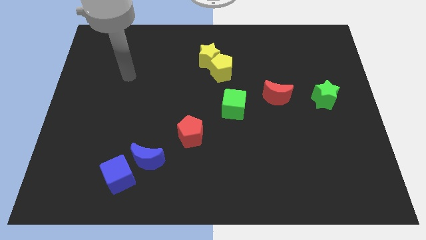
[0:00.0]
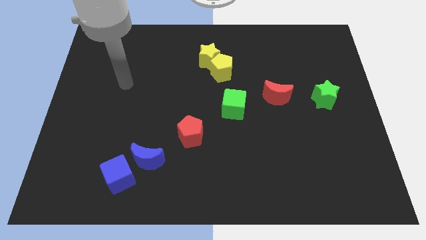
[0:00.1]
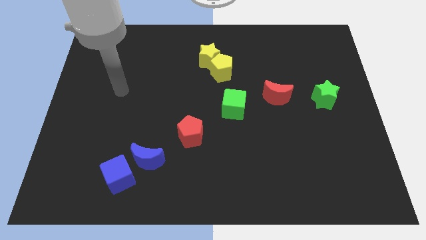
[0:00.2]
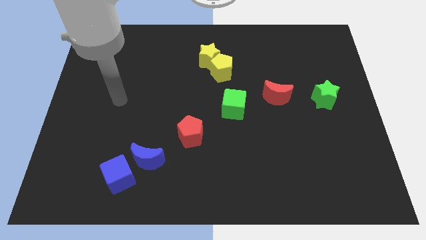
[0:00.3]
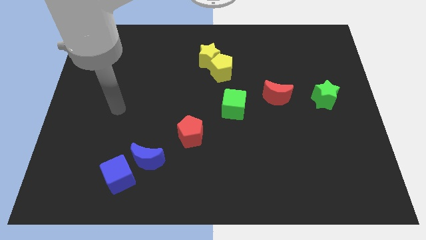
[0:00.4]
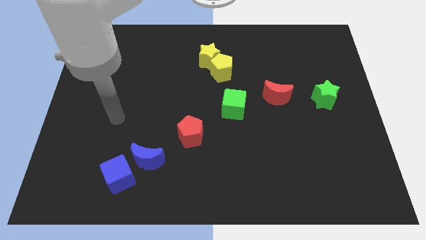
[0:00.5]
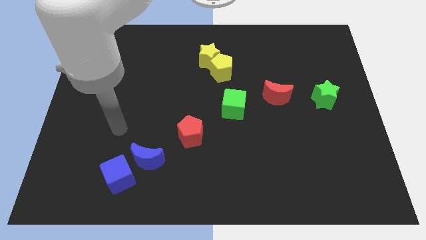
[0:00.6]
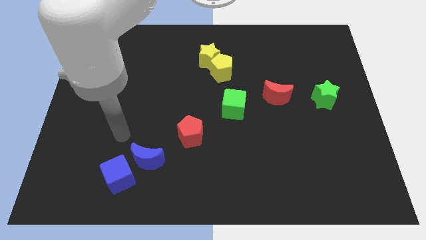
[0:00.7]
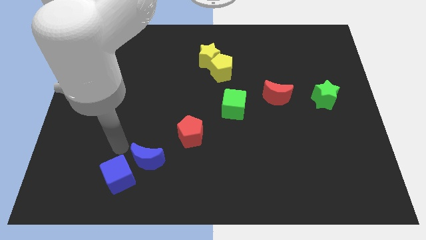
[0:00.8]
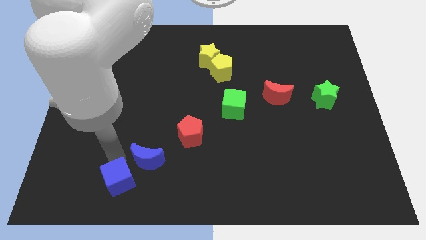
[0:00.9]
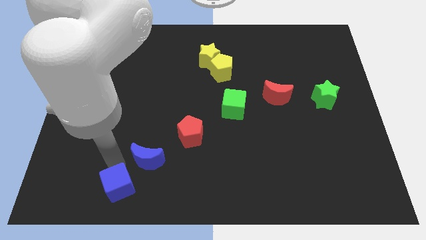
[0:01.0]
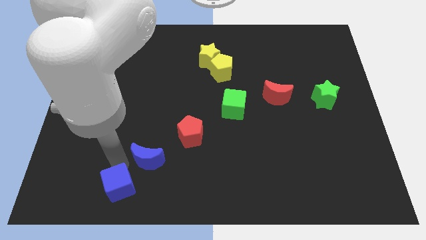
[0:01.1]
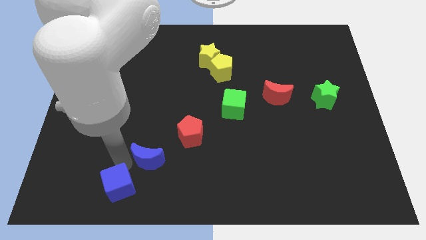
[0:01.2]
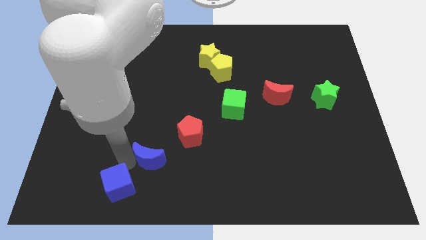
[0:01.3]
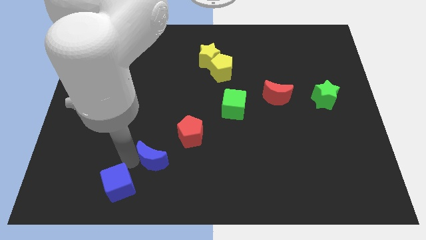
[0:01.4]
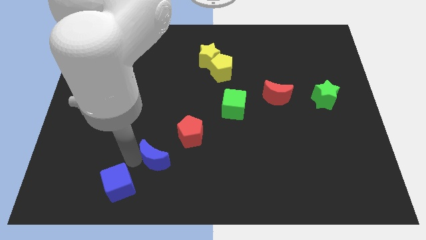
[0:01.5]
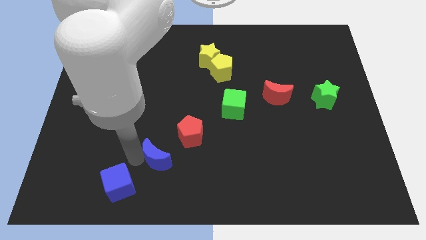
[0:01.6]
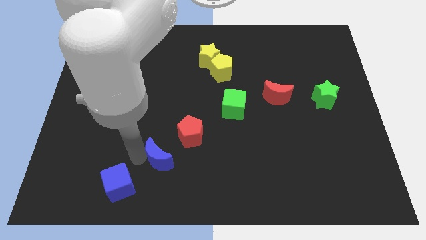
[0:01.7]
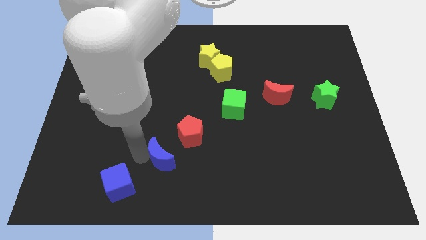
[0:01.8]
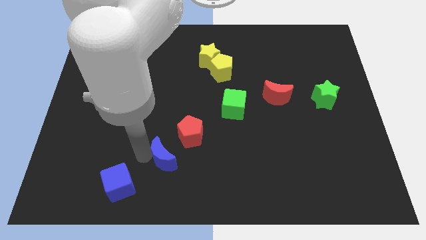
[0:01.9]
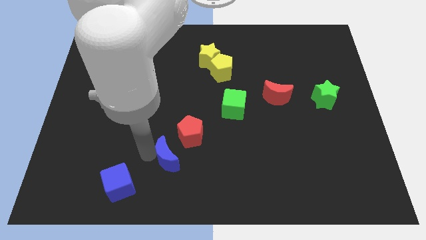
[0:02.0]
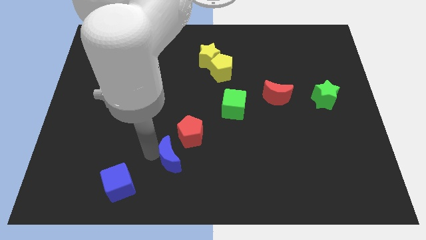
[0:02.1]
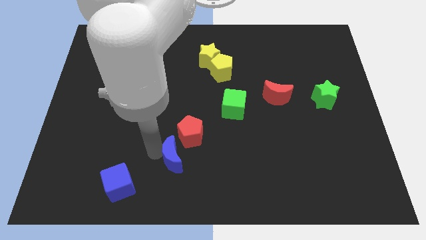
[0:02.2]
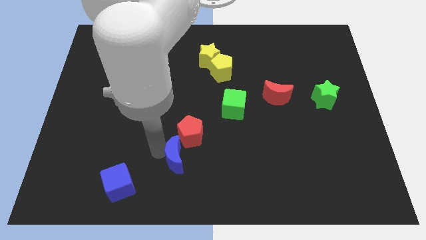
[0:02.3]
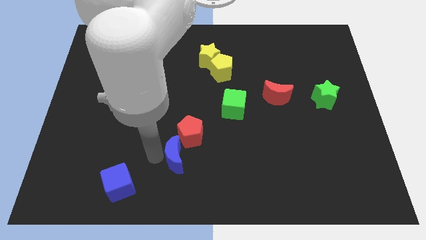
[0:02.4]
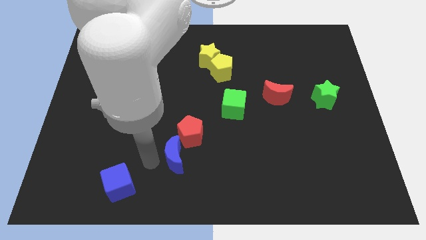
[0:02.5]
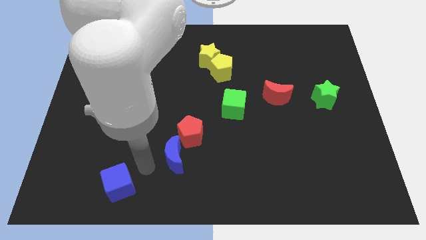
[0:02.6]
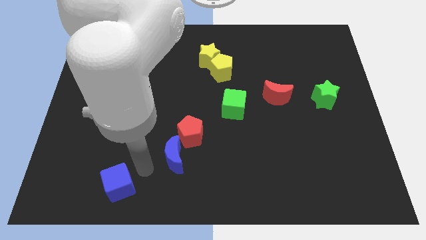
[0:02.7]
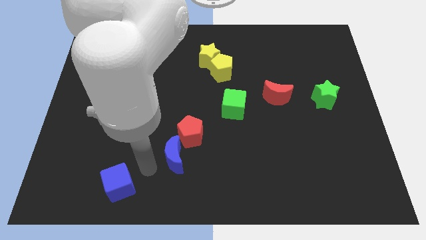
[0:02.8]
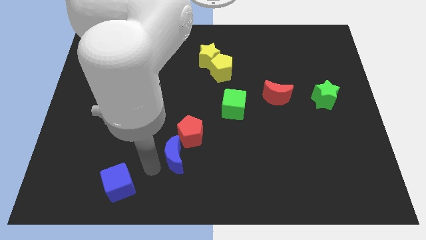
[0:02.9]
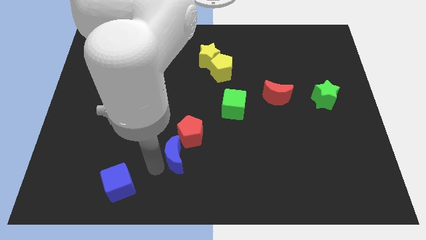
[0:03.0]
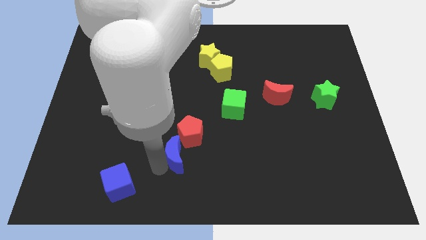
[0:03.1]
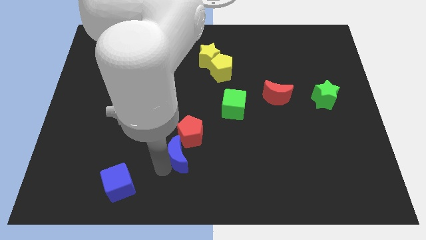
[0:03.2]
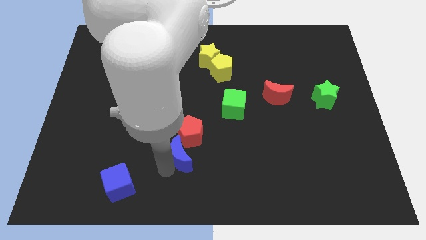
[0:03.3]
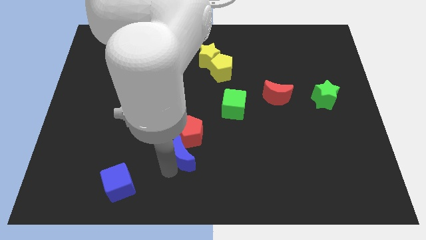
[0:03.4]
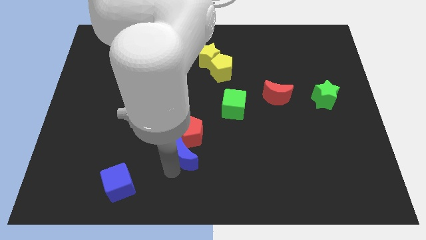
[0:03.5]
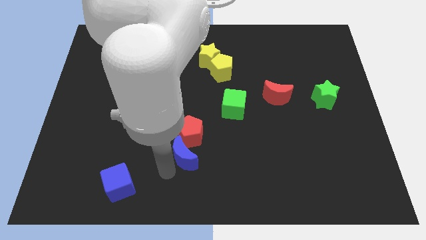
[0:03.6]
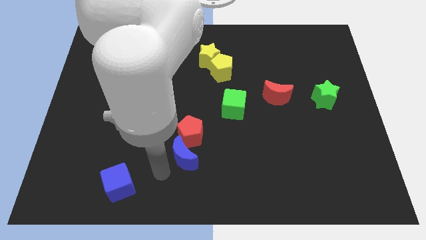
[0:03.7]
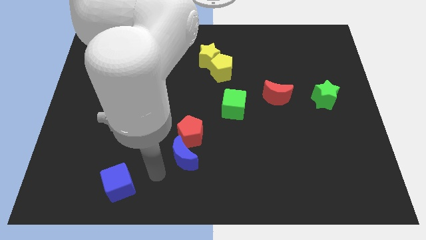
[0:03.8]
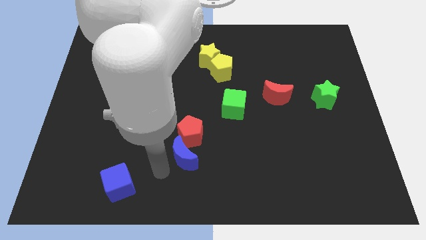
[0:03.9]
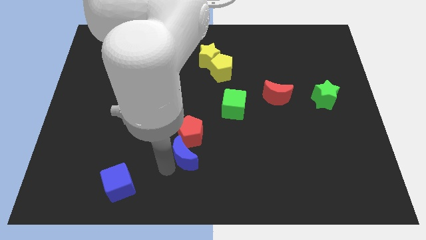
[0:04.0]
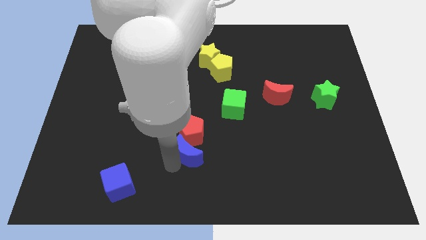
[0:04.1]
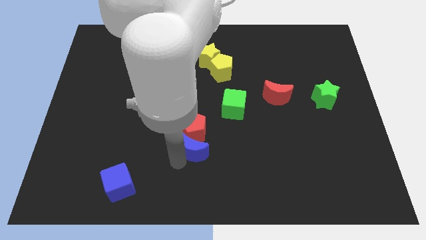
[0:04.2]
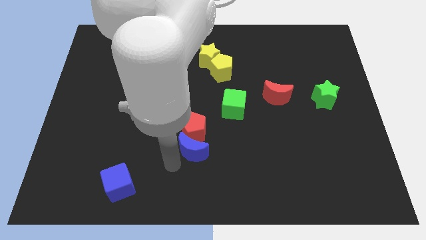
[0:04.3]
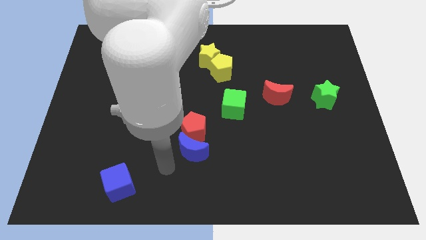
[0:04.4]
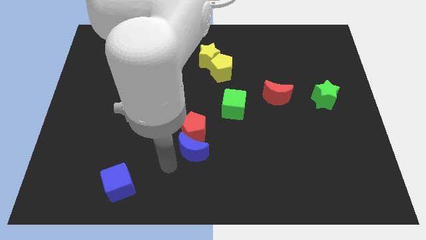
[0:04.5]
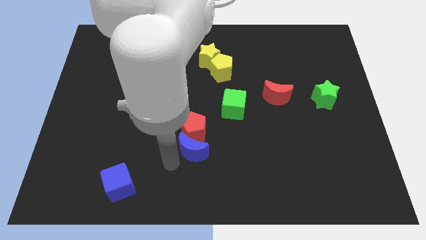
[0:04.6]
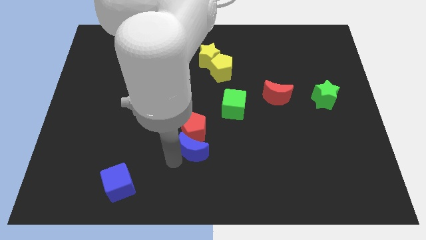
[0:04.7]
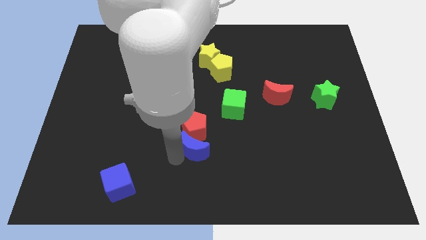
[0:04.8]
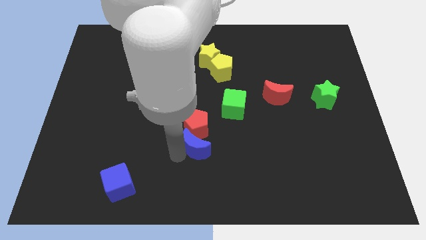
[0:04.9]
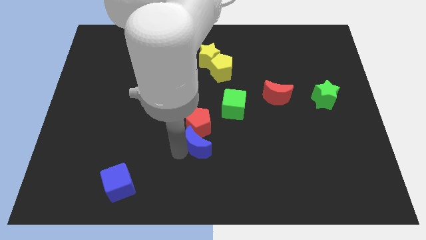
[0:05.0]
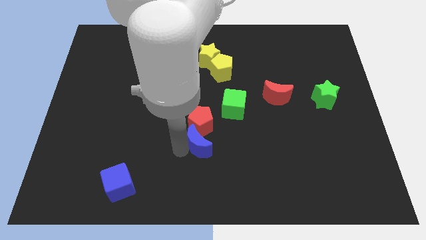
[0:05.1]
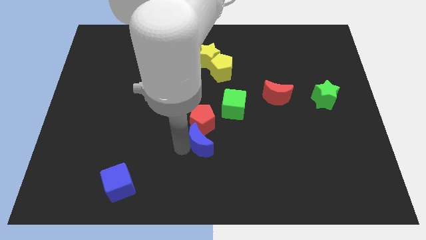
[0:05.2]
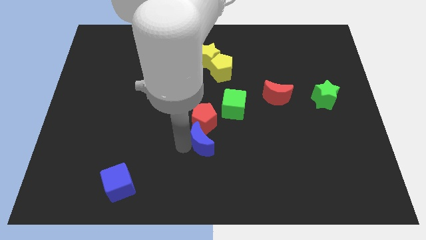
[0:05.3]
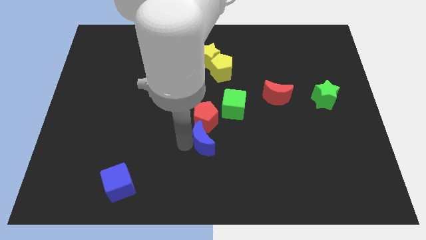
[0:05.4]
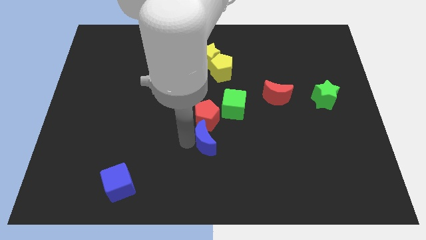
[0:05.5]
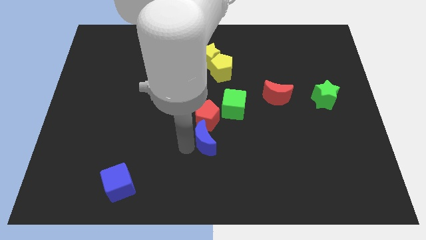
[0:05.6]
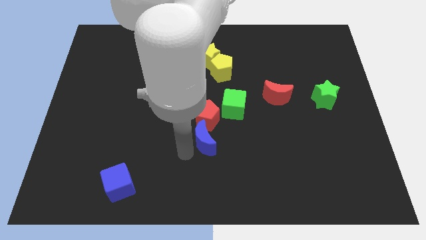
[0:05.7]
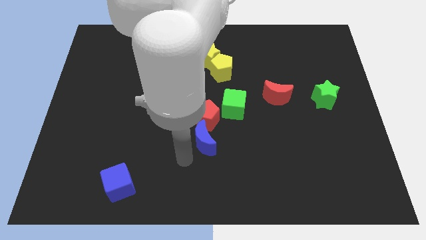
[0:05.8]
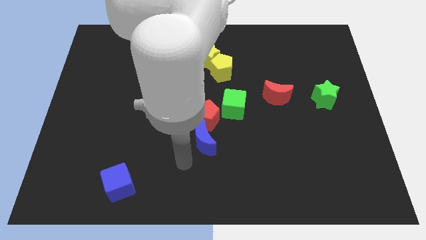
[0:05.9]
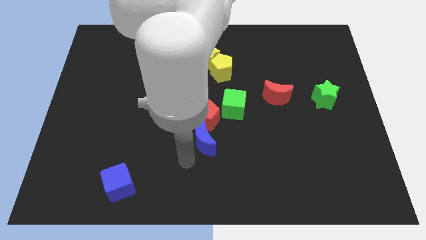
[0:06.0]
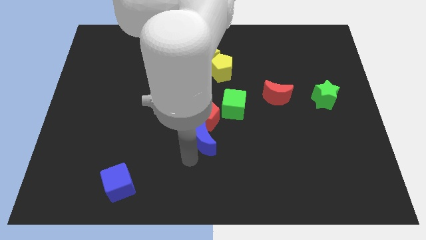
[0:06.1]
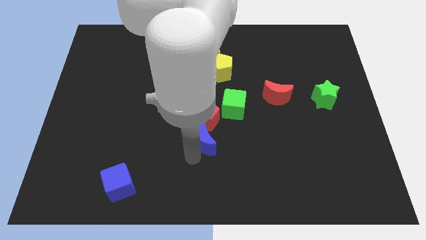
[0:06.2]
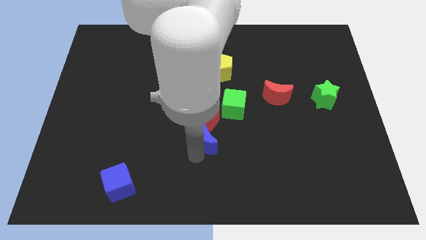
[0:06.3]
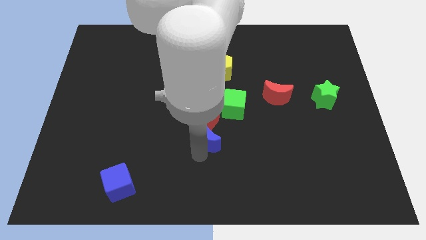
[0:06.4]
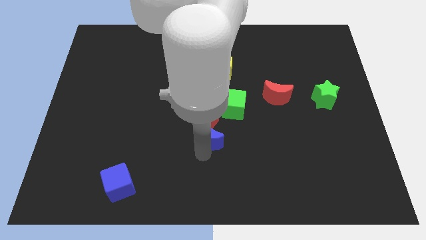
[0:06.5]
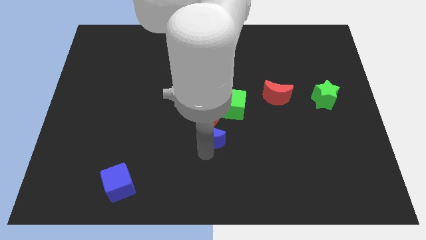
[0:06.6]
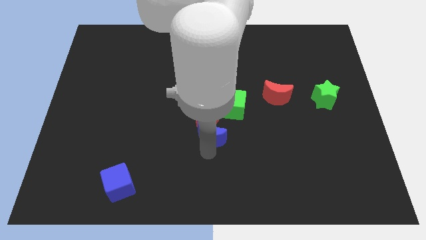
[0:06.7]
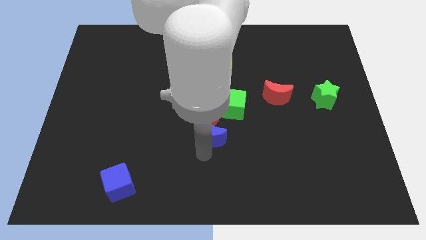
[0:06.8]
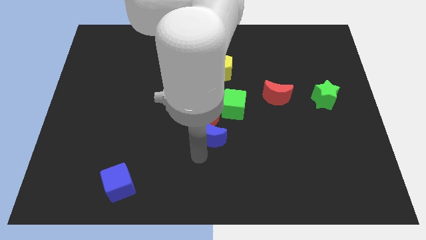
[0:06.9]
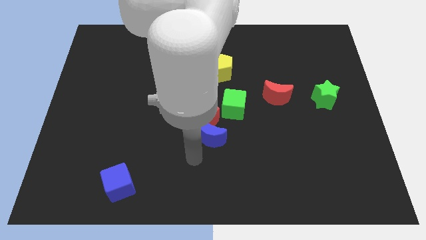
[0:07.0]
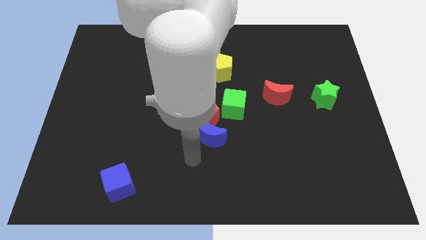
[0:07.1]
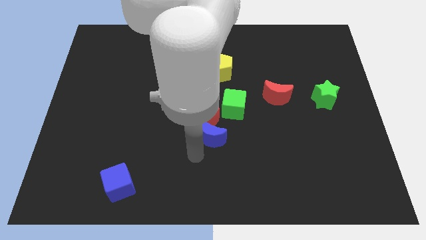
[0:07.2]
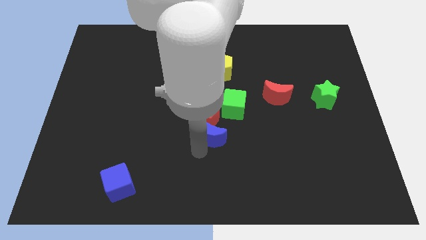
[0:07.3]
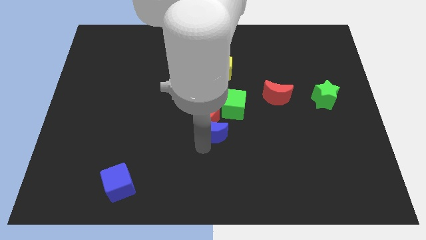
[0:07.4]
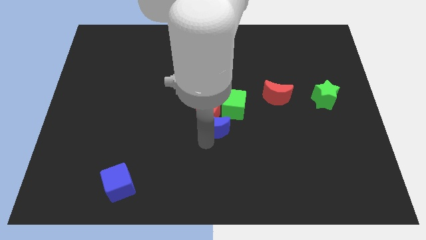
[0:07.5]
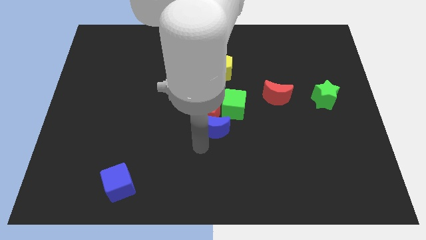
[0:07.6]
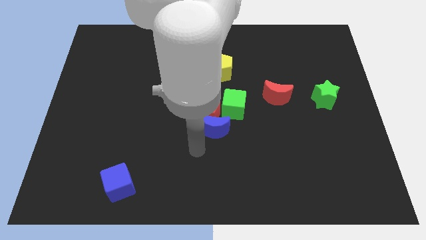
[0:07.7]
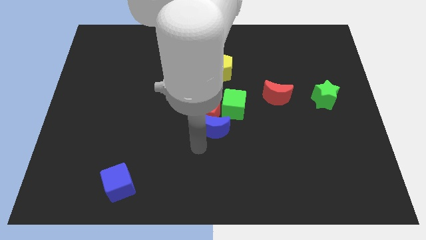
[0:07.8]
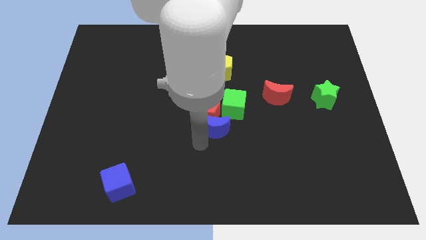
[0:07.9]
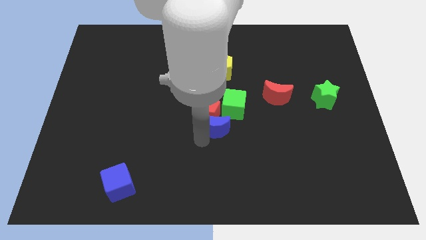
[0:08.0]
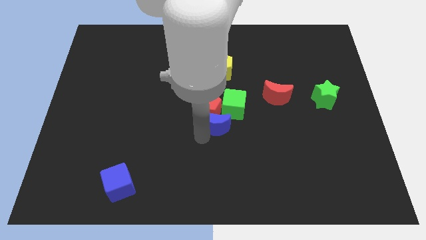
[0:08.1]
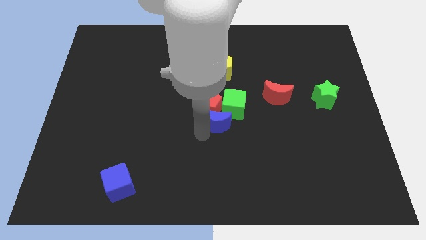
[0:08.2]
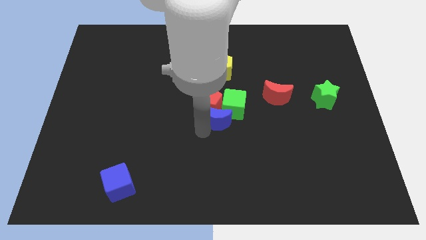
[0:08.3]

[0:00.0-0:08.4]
slide the blue moon to the green cube
